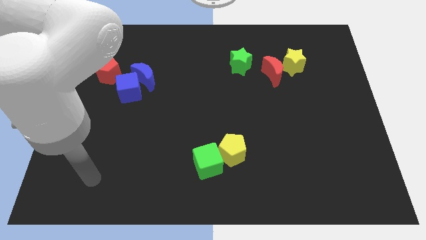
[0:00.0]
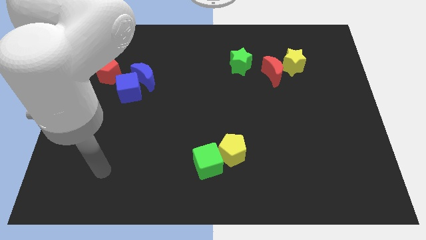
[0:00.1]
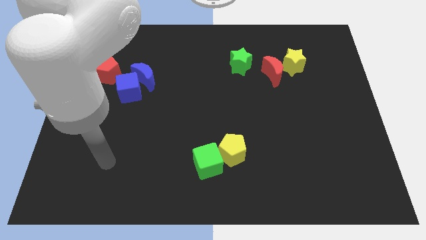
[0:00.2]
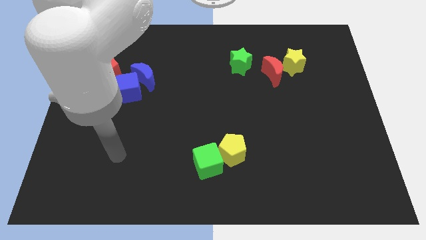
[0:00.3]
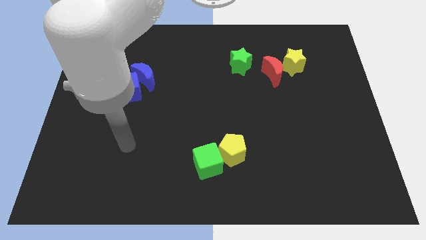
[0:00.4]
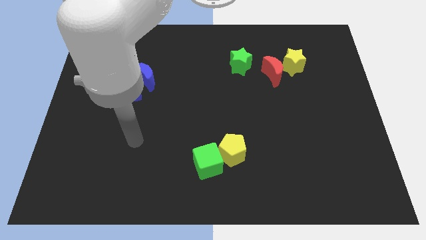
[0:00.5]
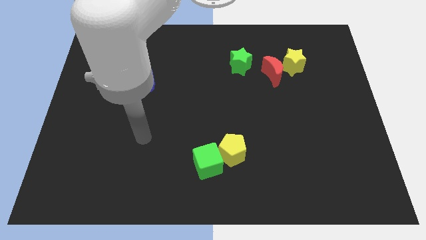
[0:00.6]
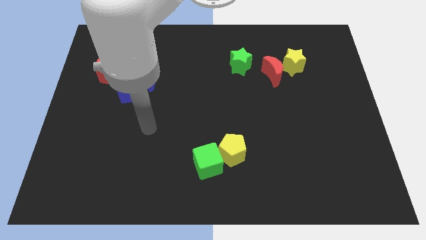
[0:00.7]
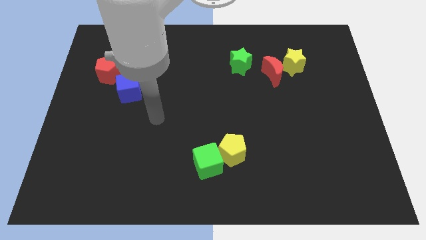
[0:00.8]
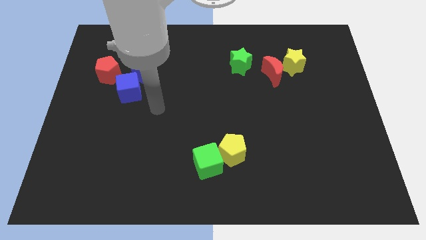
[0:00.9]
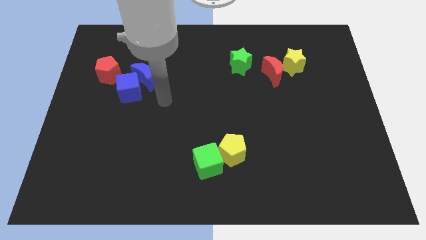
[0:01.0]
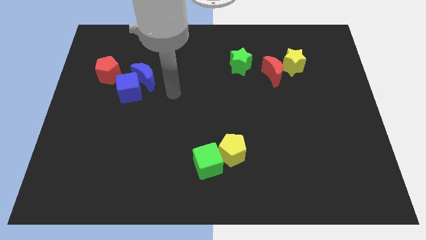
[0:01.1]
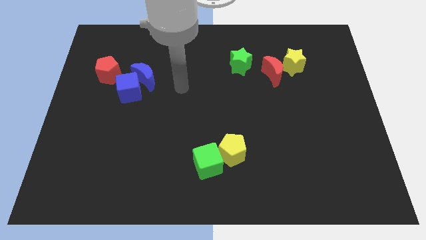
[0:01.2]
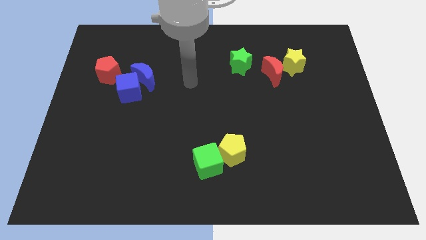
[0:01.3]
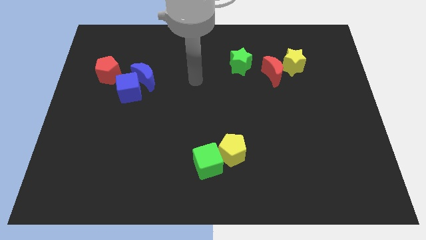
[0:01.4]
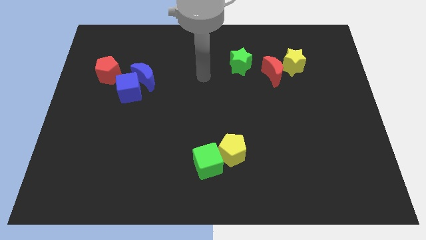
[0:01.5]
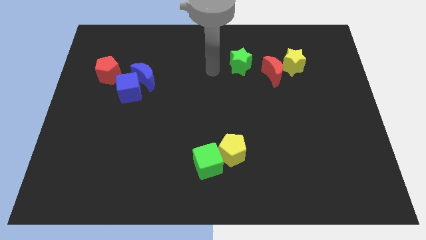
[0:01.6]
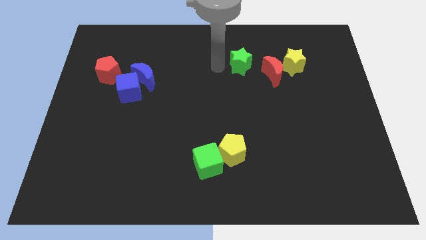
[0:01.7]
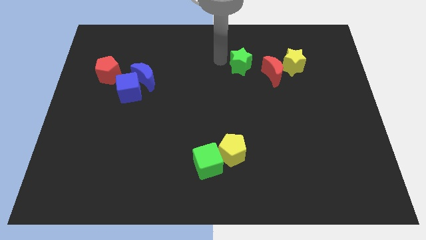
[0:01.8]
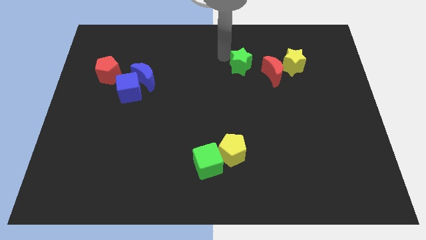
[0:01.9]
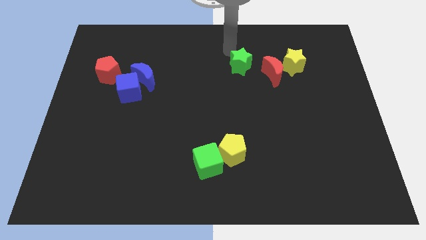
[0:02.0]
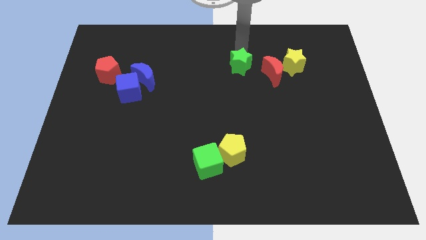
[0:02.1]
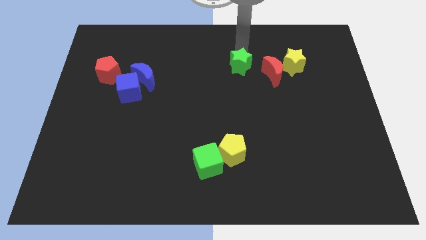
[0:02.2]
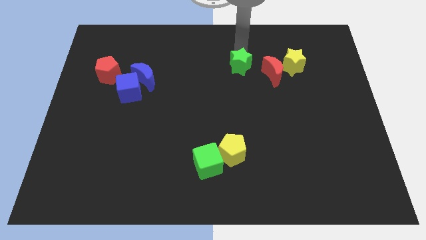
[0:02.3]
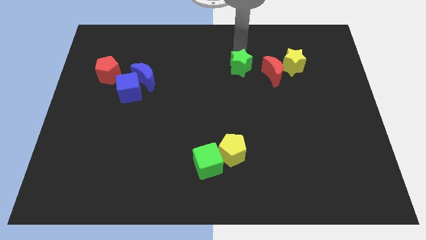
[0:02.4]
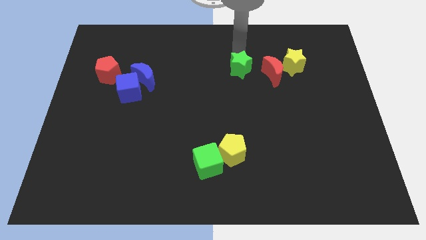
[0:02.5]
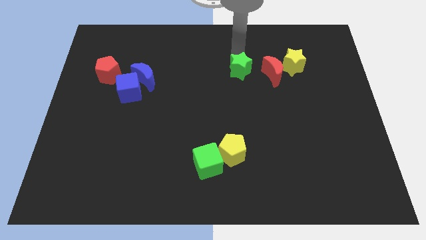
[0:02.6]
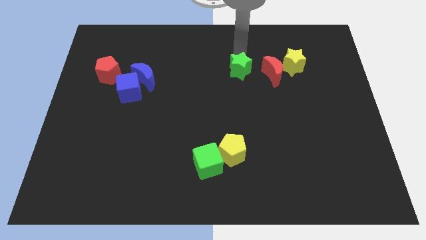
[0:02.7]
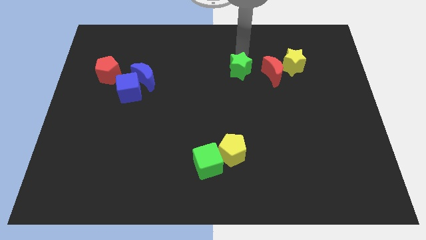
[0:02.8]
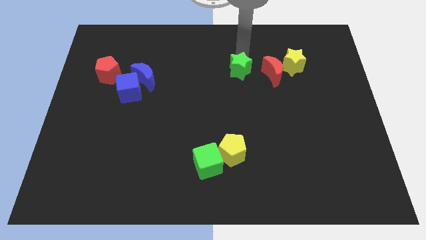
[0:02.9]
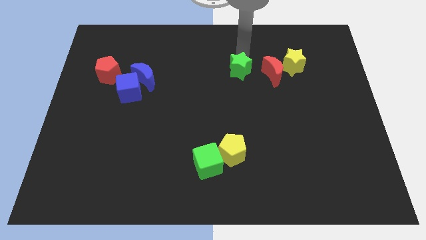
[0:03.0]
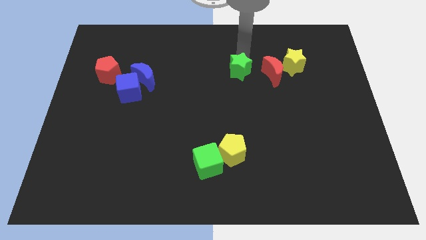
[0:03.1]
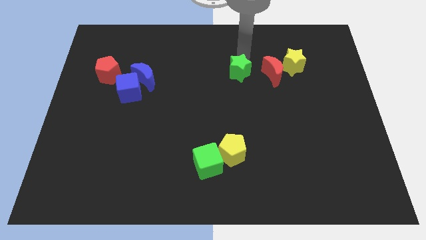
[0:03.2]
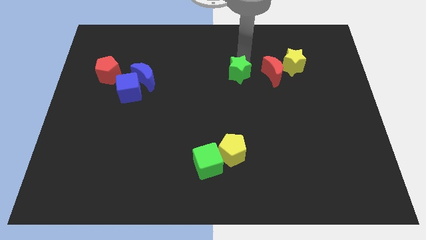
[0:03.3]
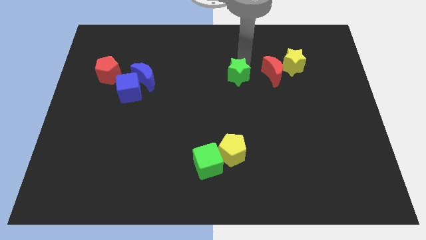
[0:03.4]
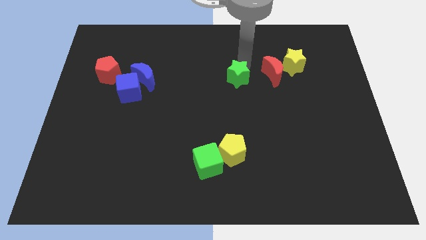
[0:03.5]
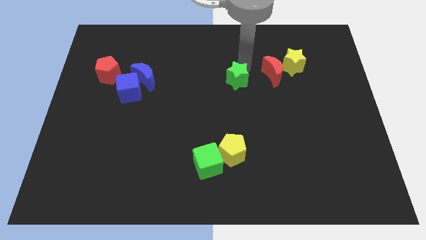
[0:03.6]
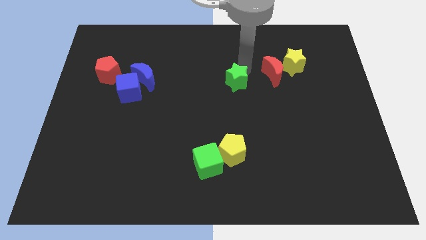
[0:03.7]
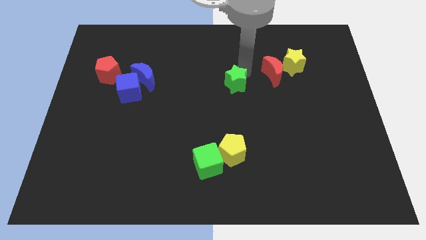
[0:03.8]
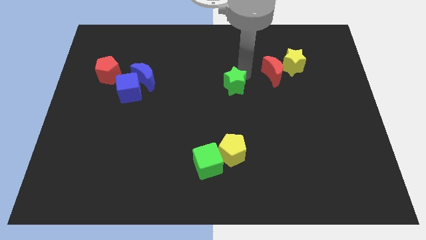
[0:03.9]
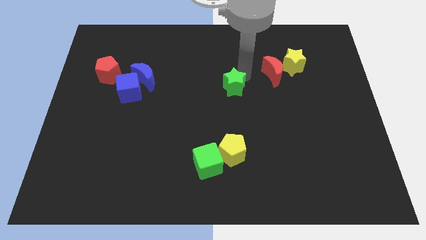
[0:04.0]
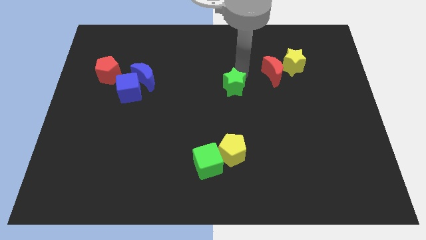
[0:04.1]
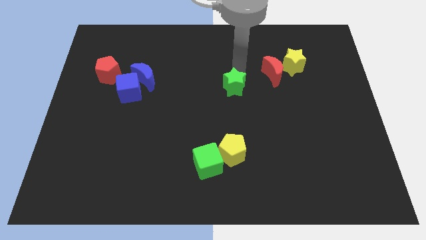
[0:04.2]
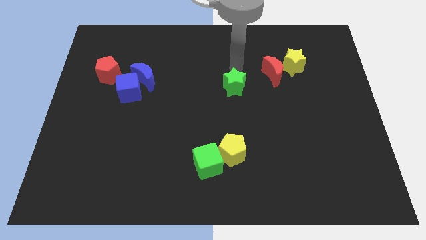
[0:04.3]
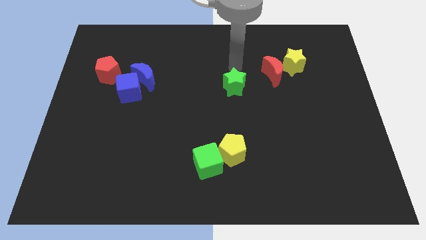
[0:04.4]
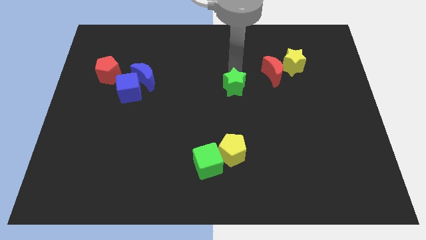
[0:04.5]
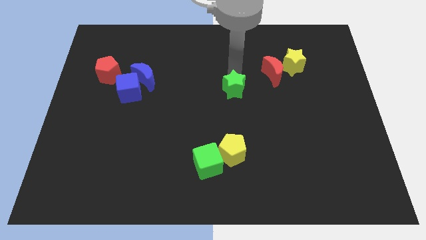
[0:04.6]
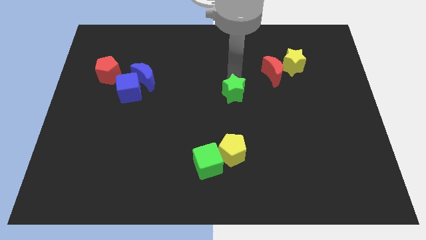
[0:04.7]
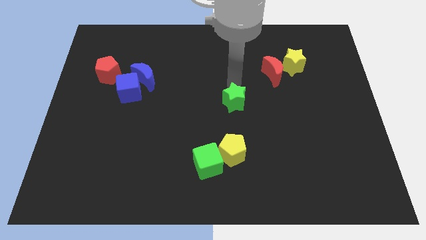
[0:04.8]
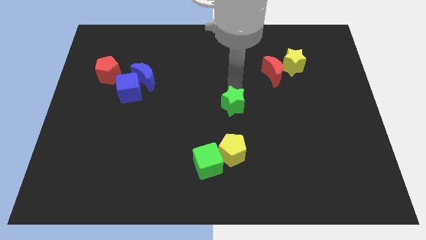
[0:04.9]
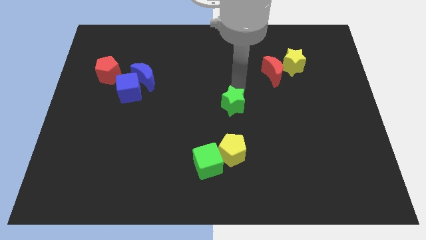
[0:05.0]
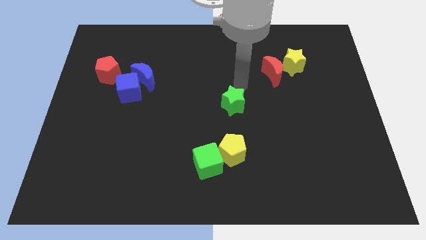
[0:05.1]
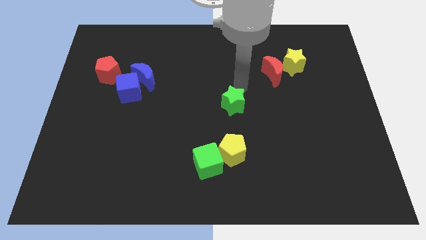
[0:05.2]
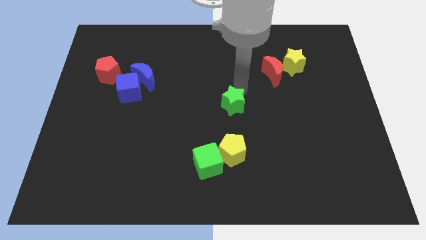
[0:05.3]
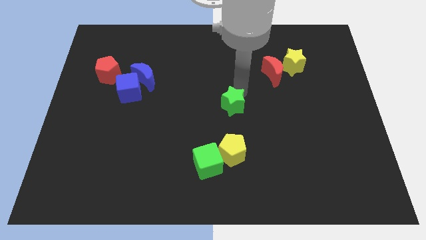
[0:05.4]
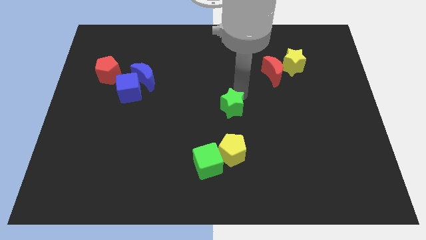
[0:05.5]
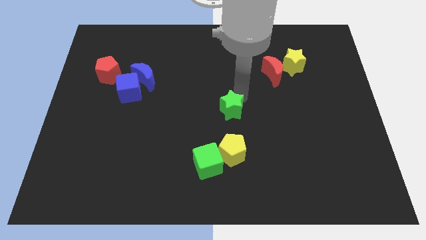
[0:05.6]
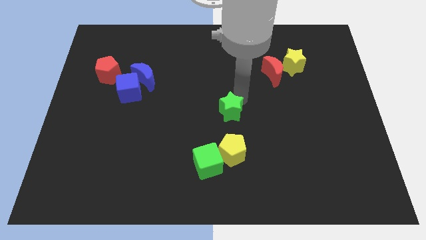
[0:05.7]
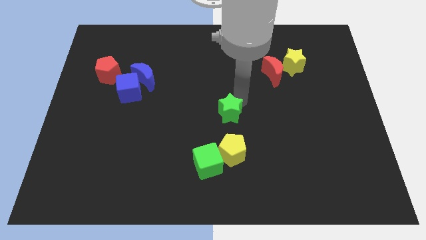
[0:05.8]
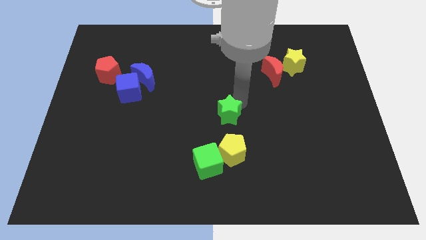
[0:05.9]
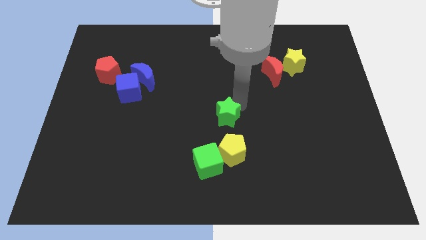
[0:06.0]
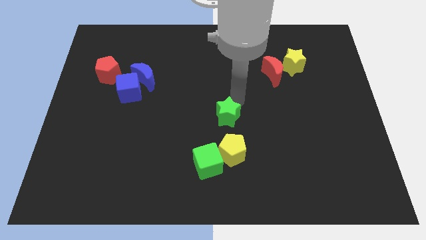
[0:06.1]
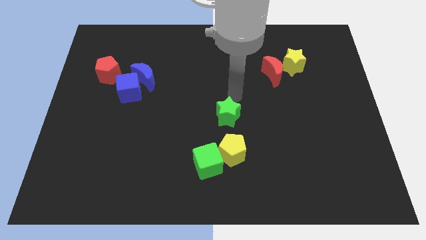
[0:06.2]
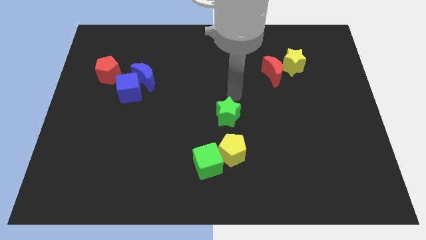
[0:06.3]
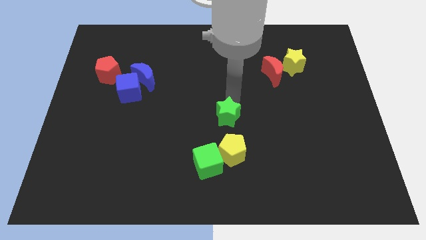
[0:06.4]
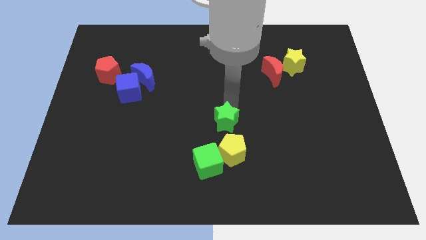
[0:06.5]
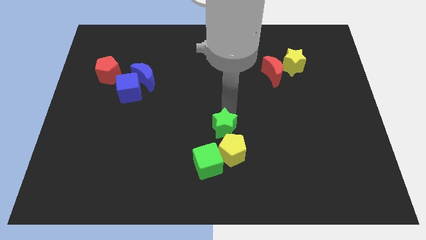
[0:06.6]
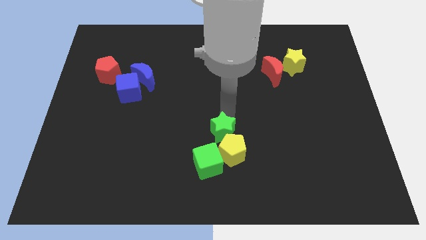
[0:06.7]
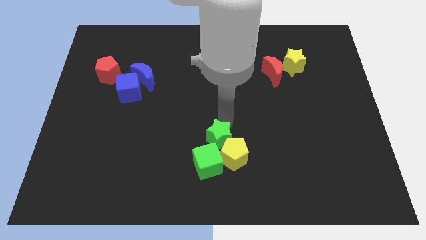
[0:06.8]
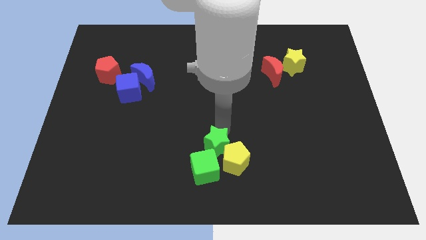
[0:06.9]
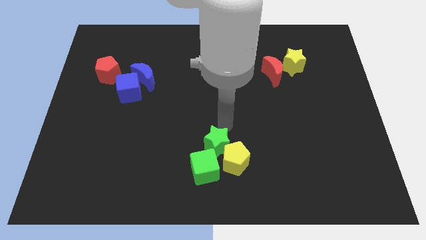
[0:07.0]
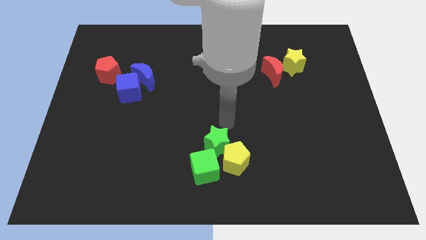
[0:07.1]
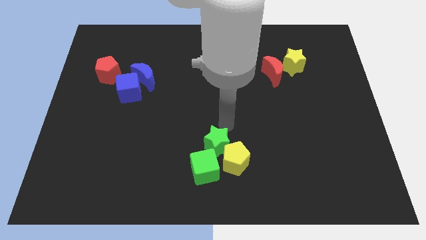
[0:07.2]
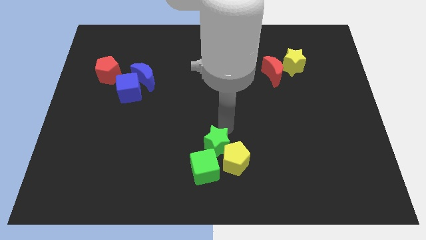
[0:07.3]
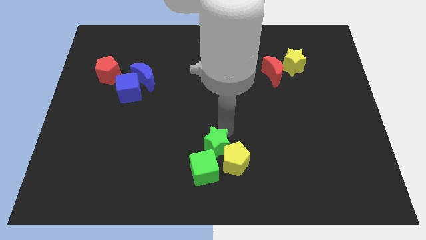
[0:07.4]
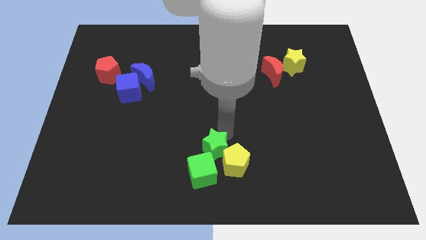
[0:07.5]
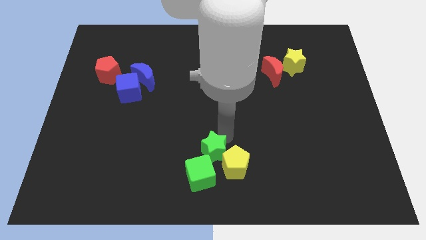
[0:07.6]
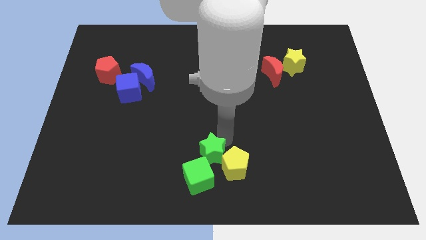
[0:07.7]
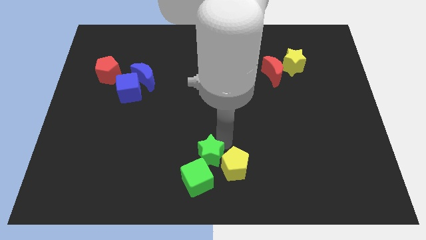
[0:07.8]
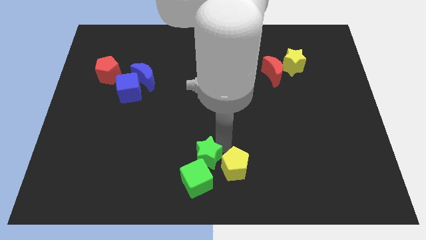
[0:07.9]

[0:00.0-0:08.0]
push the green star next to the green cube
